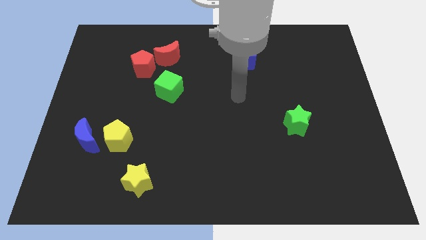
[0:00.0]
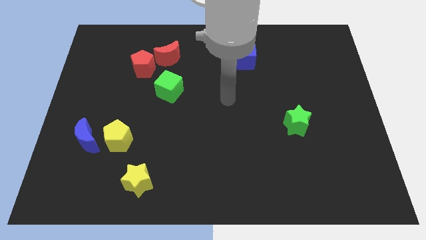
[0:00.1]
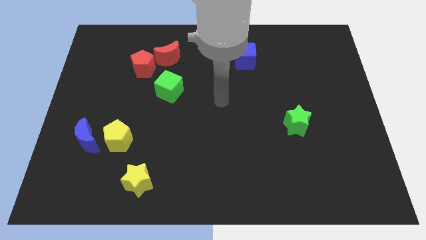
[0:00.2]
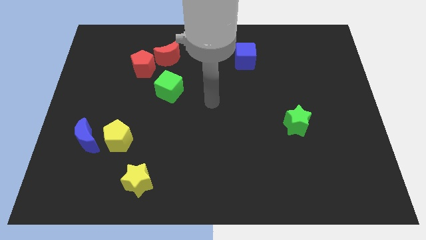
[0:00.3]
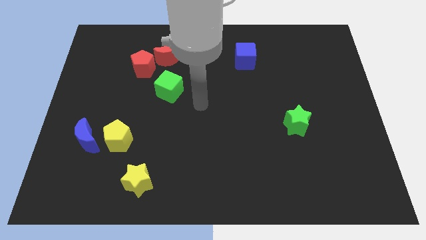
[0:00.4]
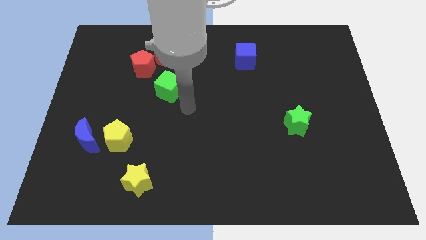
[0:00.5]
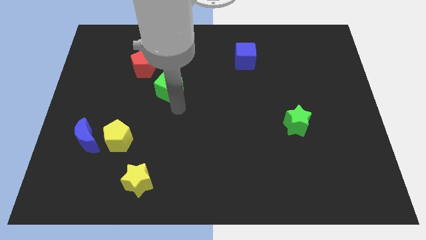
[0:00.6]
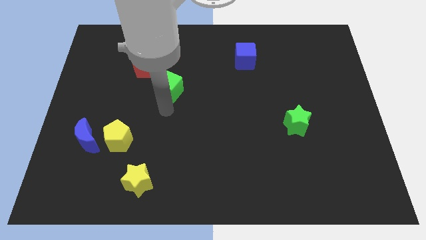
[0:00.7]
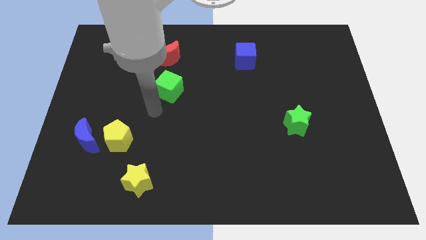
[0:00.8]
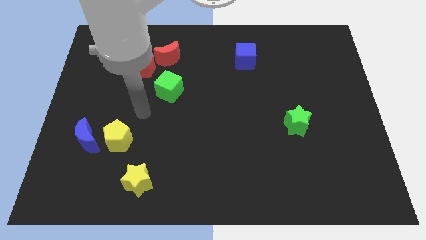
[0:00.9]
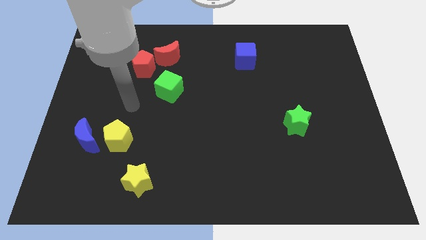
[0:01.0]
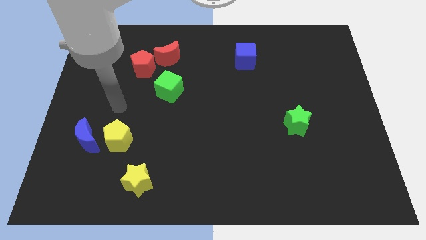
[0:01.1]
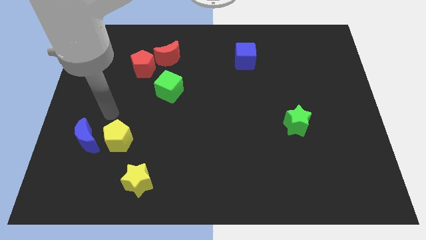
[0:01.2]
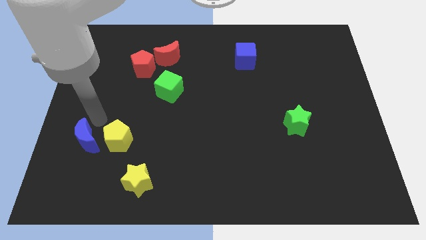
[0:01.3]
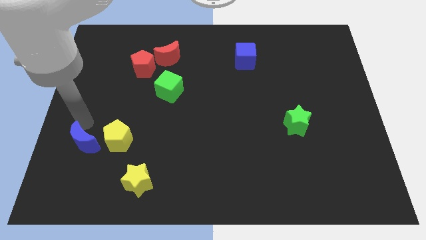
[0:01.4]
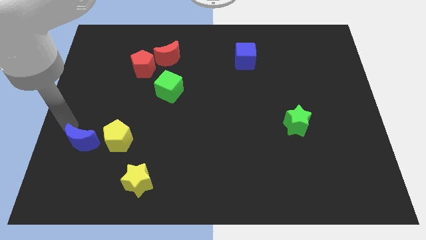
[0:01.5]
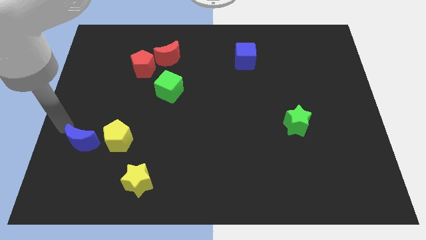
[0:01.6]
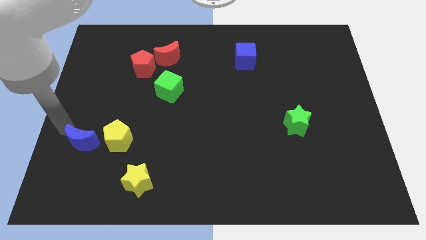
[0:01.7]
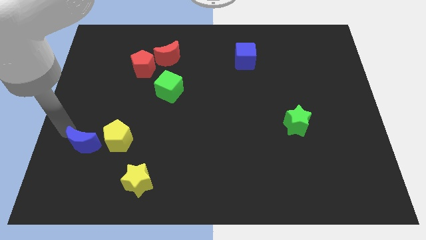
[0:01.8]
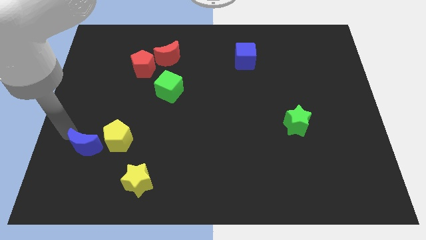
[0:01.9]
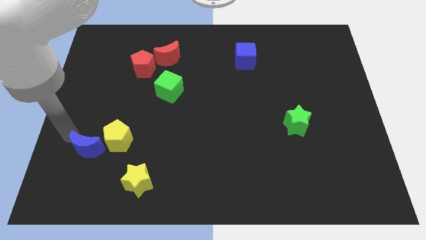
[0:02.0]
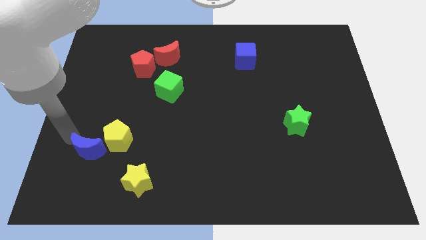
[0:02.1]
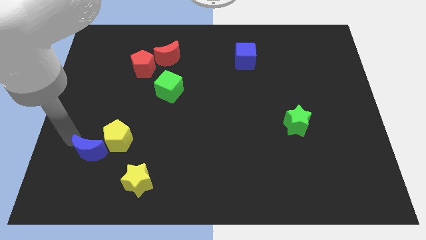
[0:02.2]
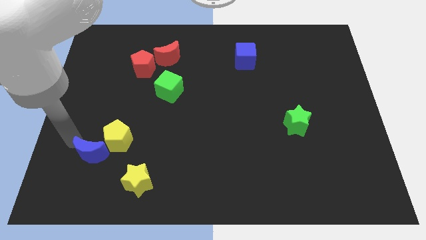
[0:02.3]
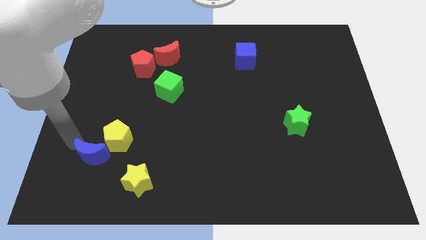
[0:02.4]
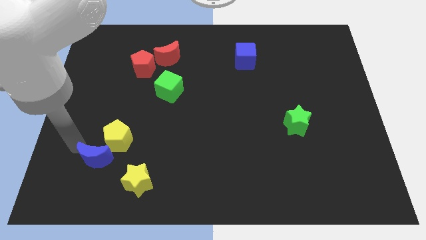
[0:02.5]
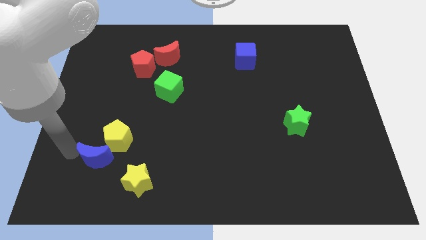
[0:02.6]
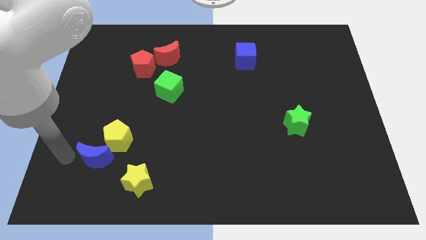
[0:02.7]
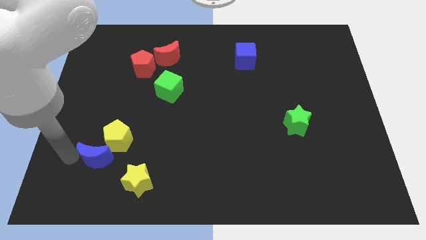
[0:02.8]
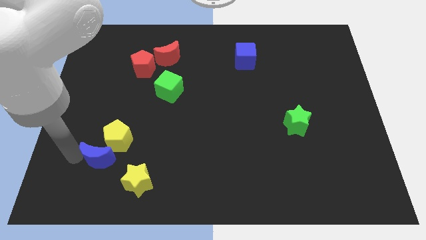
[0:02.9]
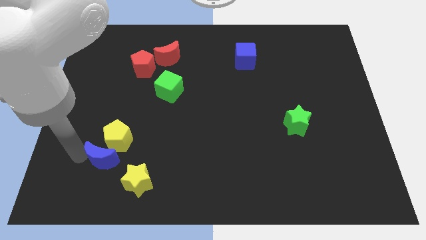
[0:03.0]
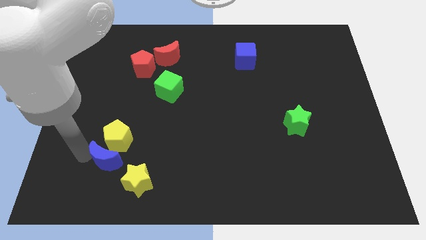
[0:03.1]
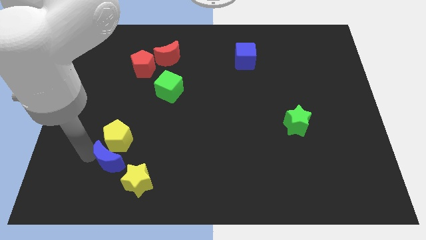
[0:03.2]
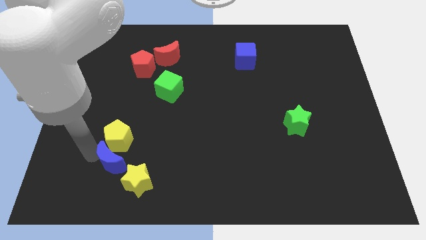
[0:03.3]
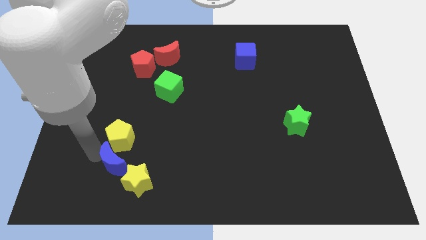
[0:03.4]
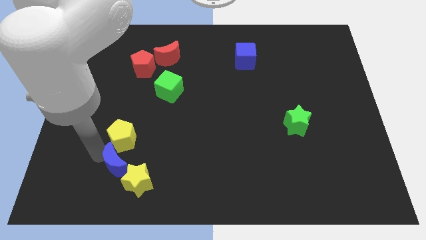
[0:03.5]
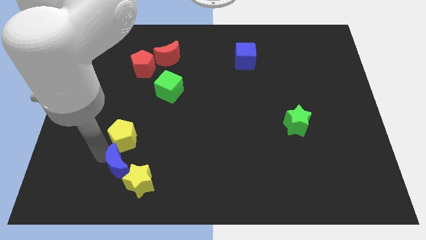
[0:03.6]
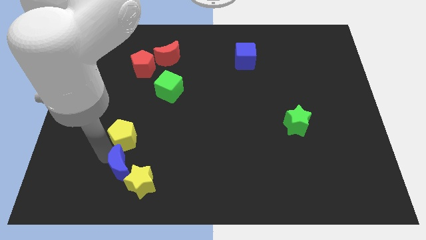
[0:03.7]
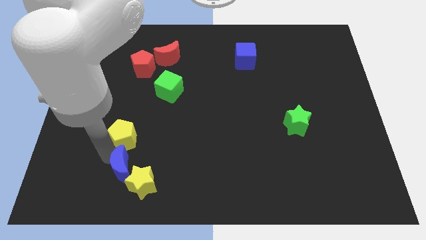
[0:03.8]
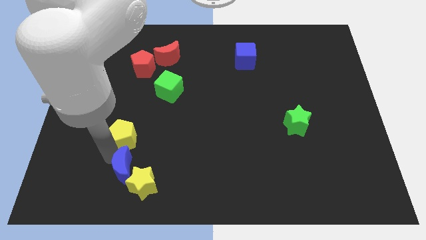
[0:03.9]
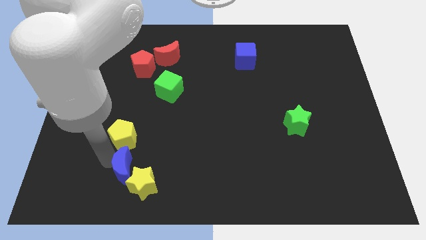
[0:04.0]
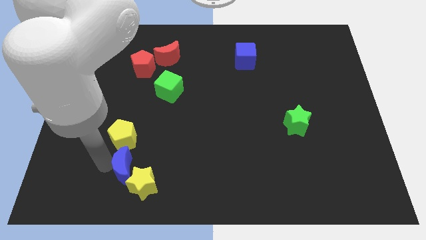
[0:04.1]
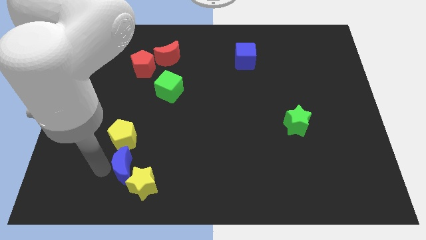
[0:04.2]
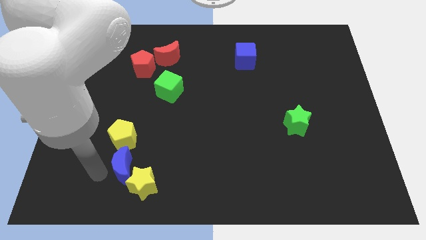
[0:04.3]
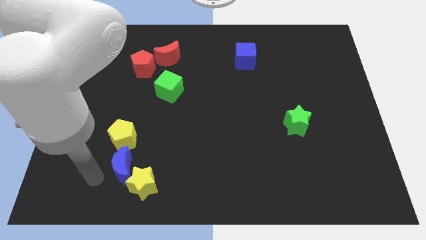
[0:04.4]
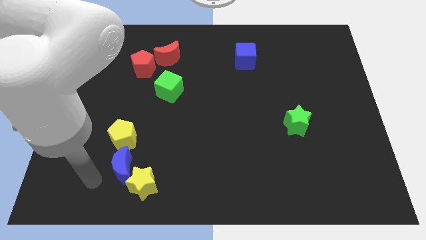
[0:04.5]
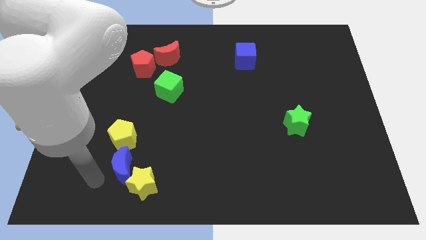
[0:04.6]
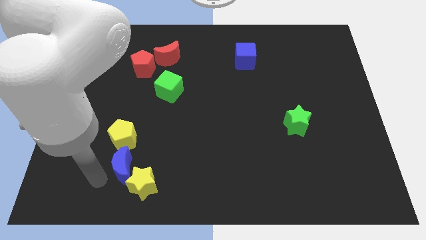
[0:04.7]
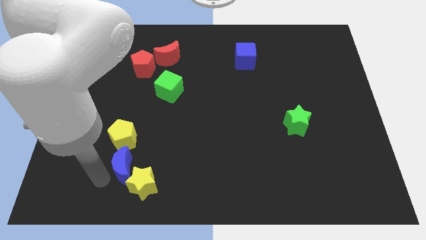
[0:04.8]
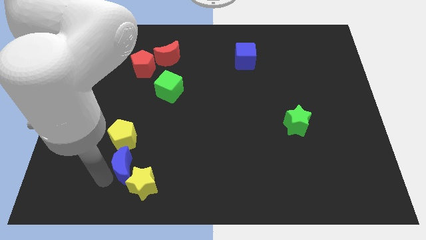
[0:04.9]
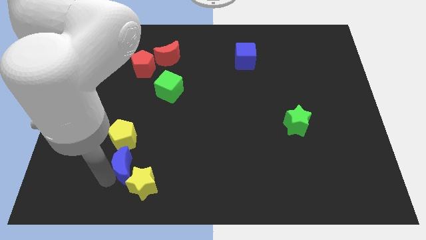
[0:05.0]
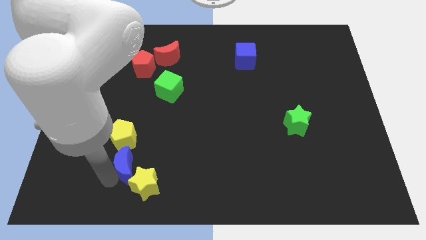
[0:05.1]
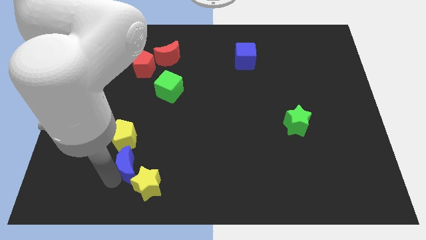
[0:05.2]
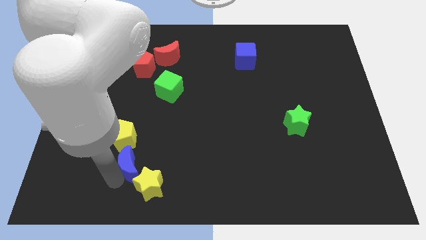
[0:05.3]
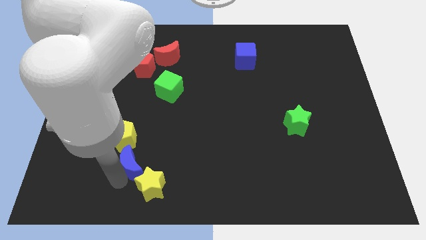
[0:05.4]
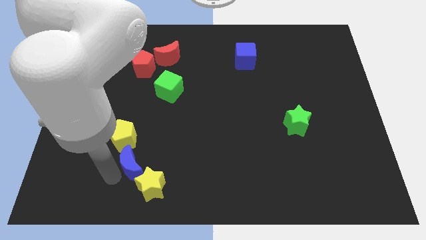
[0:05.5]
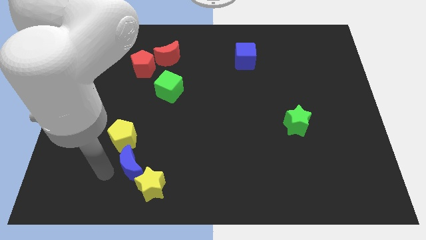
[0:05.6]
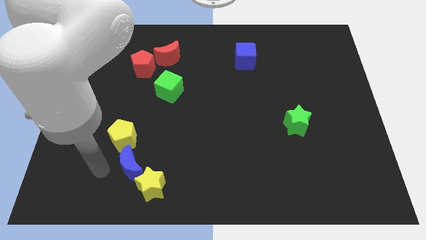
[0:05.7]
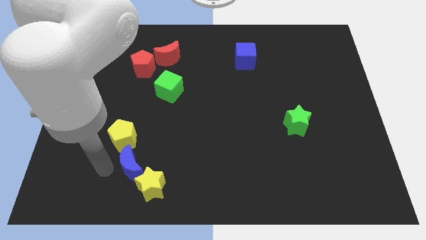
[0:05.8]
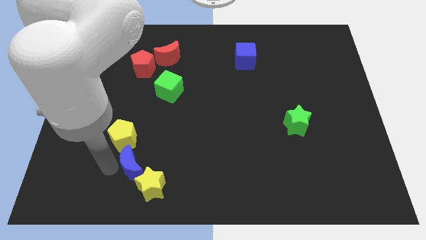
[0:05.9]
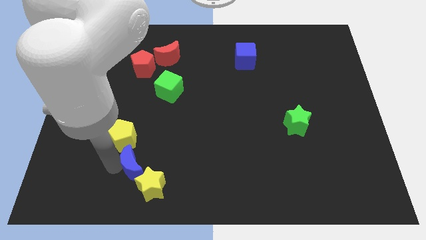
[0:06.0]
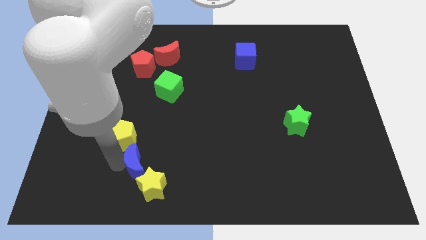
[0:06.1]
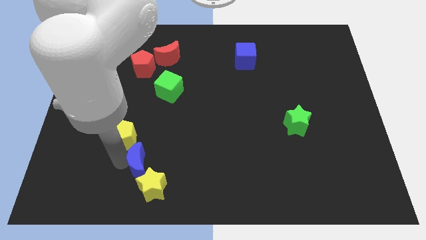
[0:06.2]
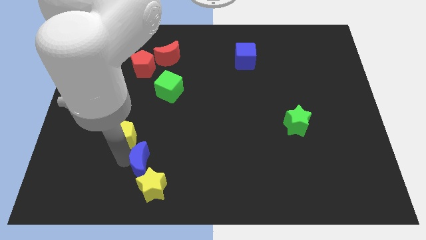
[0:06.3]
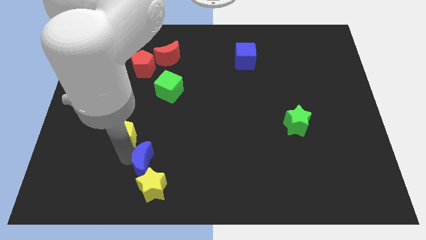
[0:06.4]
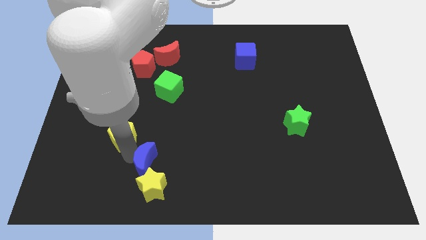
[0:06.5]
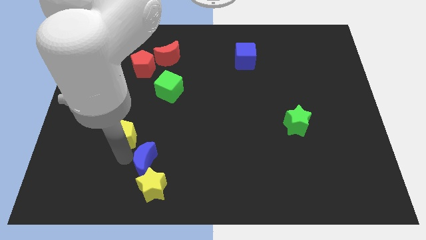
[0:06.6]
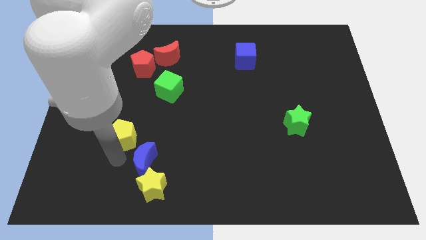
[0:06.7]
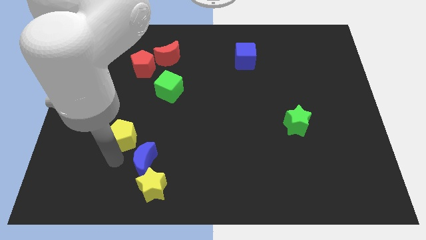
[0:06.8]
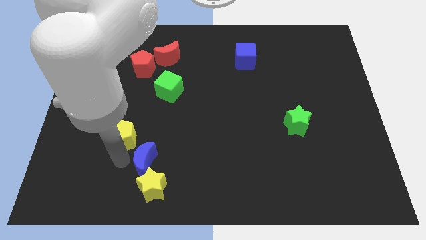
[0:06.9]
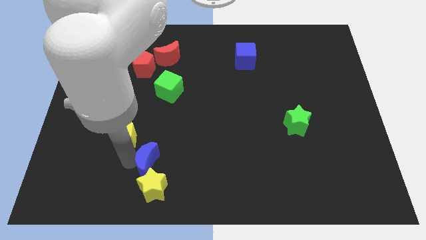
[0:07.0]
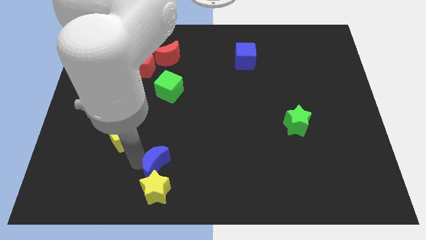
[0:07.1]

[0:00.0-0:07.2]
push the blue moon to the top right of the yellow star

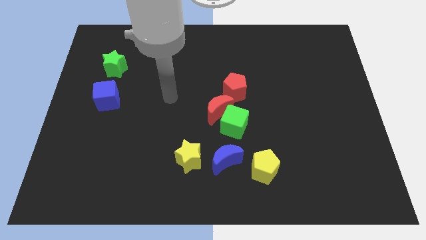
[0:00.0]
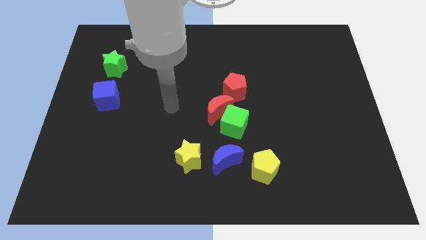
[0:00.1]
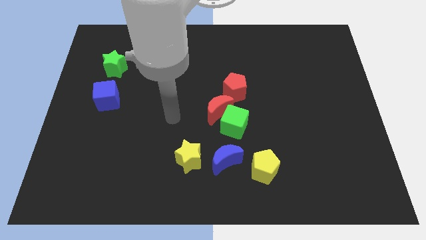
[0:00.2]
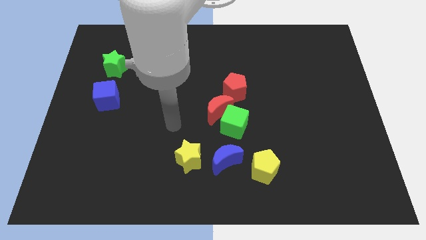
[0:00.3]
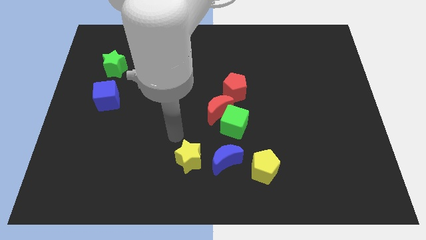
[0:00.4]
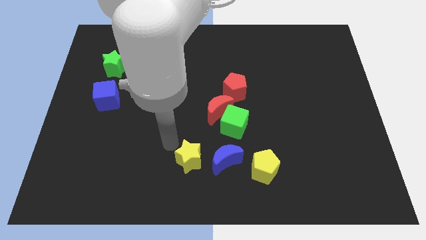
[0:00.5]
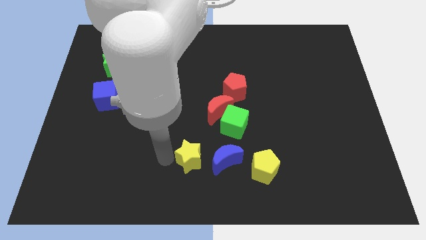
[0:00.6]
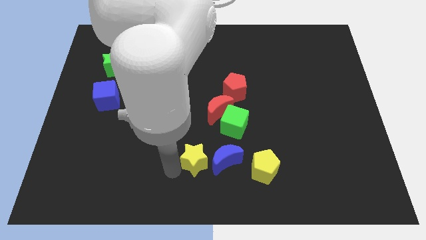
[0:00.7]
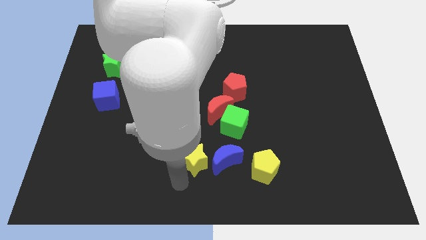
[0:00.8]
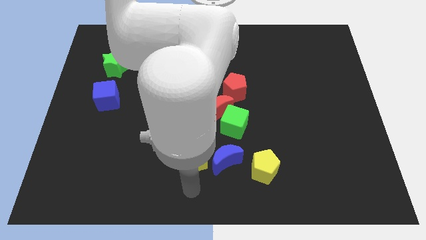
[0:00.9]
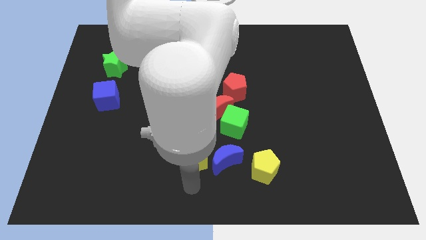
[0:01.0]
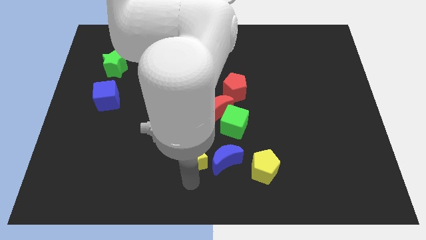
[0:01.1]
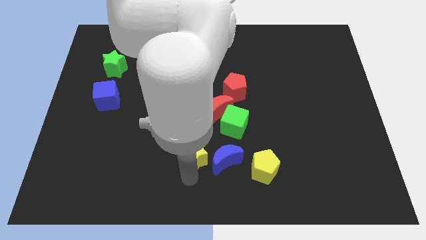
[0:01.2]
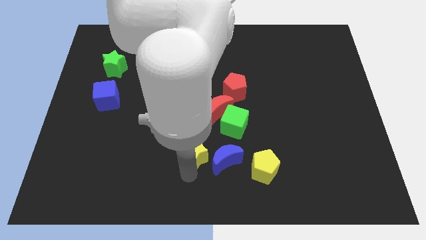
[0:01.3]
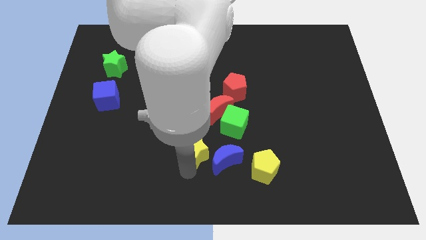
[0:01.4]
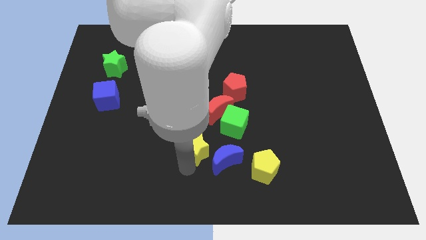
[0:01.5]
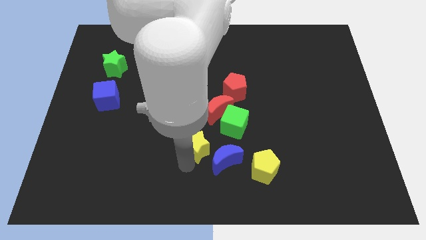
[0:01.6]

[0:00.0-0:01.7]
put the yellow star diagonally down and to the left of the red moon
